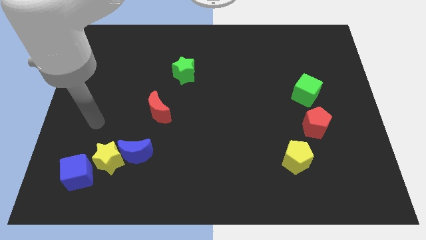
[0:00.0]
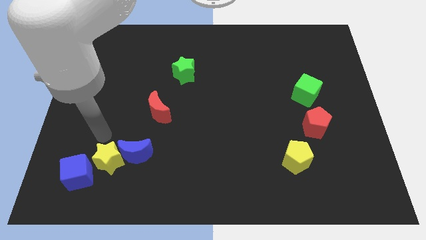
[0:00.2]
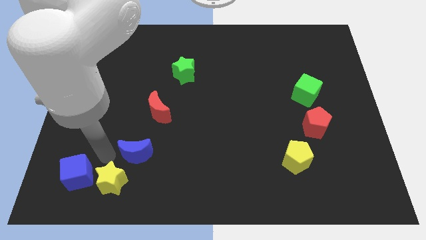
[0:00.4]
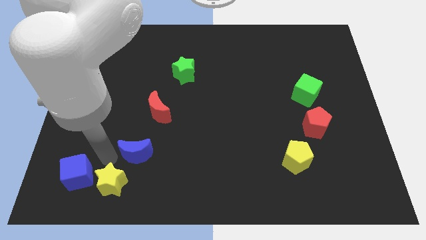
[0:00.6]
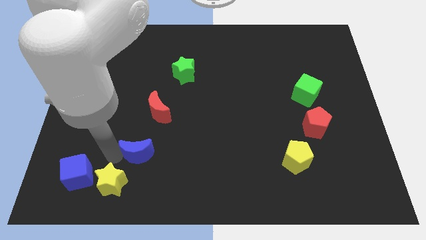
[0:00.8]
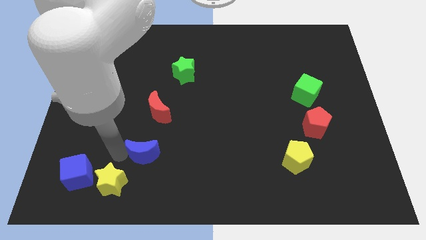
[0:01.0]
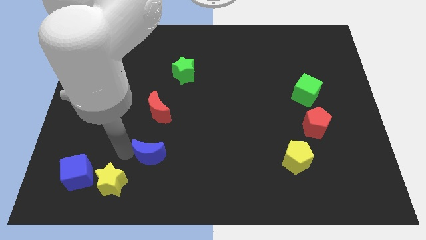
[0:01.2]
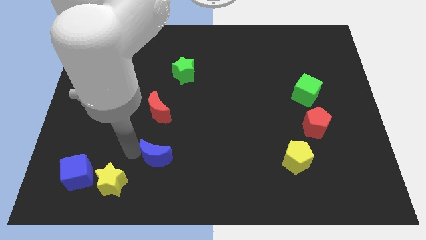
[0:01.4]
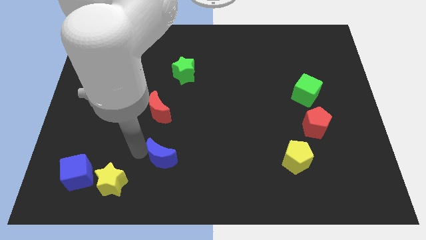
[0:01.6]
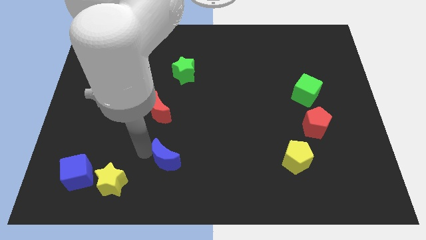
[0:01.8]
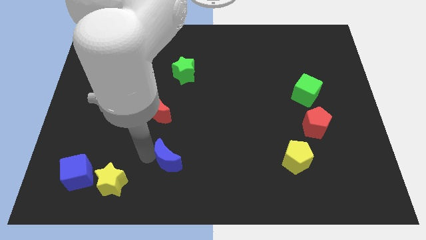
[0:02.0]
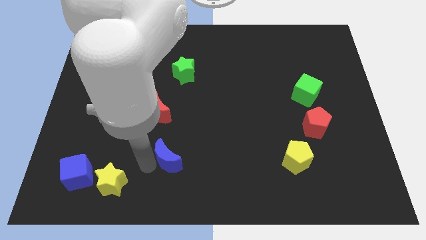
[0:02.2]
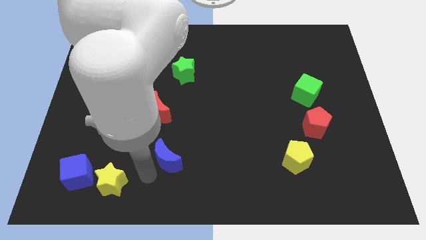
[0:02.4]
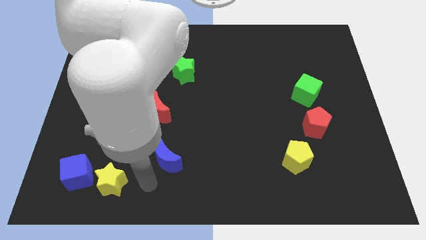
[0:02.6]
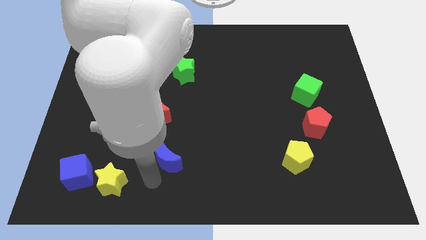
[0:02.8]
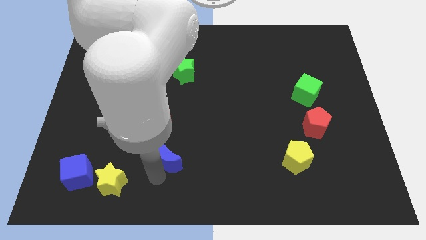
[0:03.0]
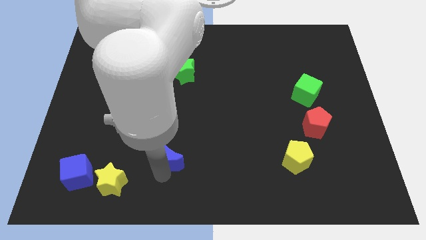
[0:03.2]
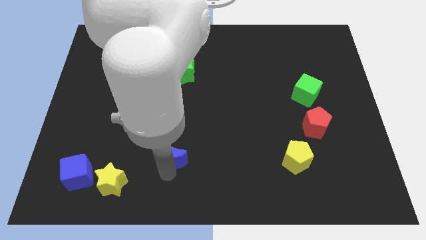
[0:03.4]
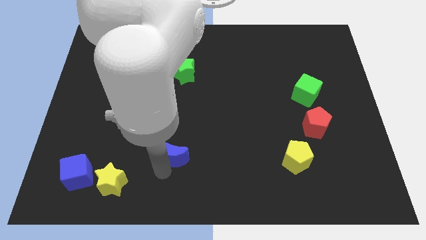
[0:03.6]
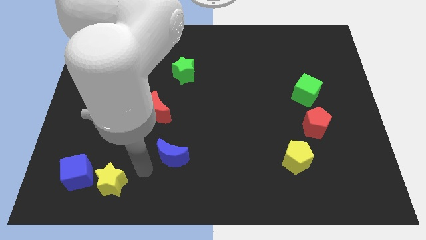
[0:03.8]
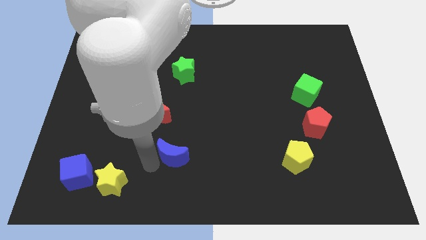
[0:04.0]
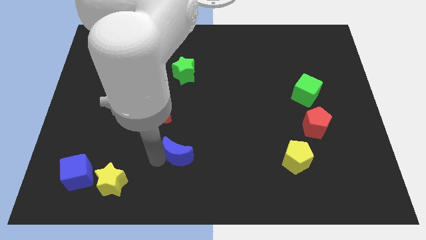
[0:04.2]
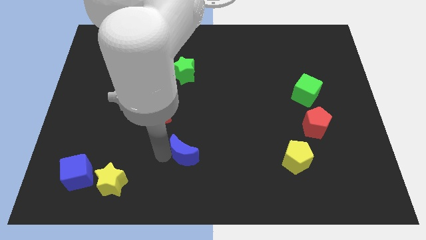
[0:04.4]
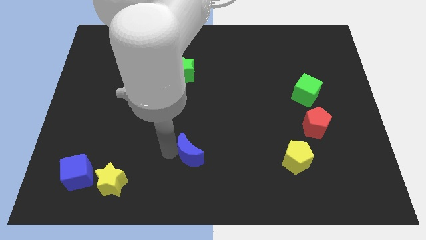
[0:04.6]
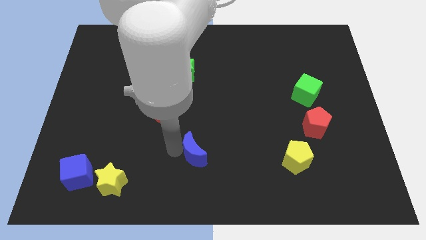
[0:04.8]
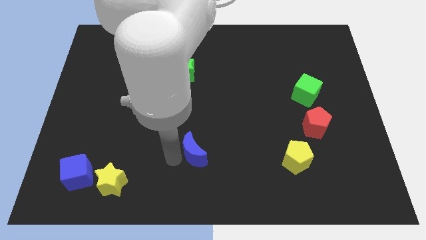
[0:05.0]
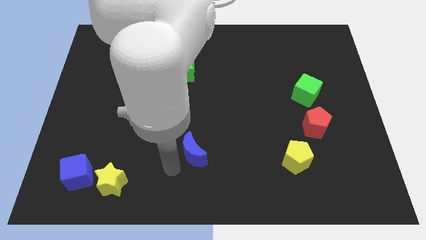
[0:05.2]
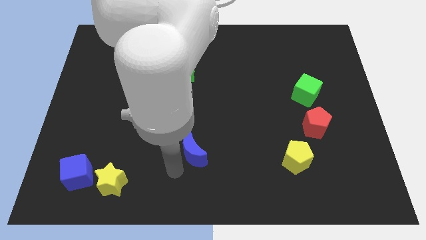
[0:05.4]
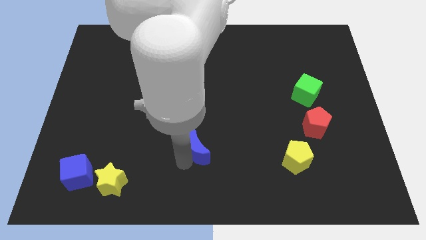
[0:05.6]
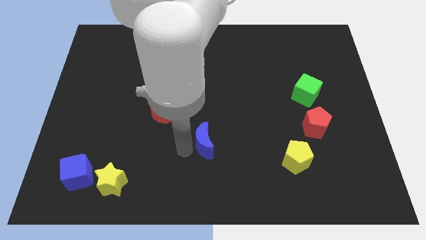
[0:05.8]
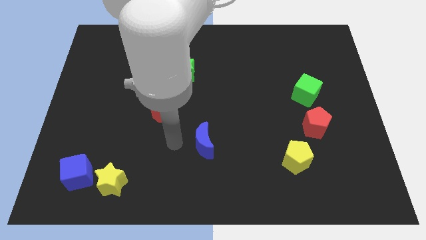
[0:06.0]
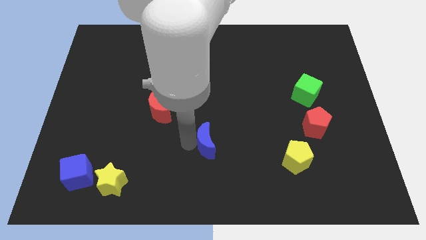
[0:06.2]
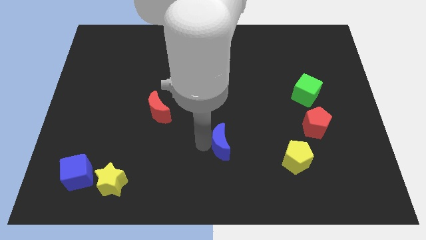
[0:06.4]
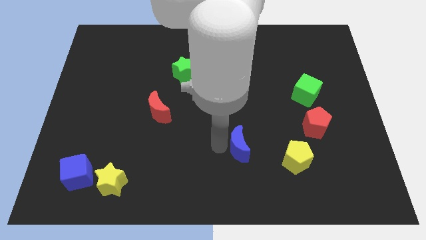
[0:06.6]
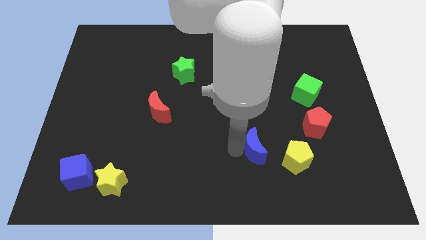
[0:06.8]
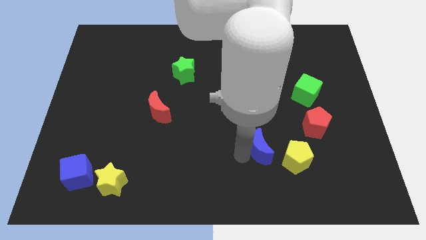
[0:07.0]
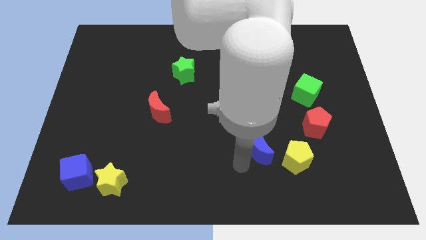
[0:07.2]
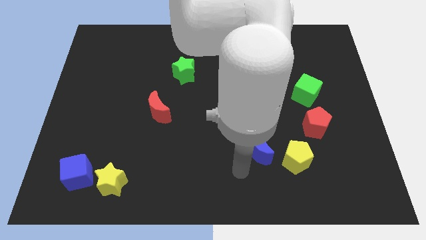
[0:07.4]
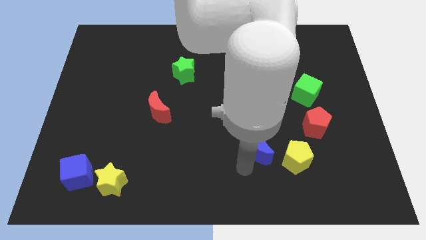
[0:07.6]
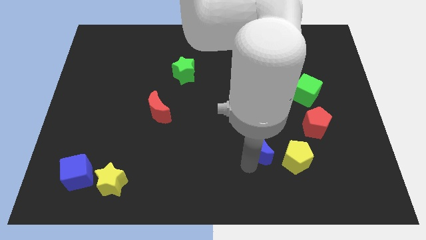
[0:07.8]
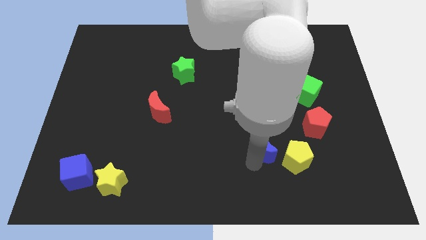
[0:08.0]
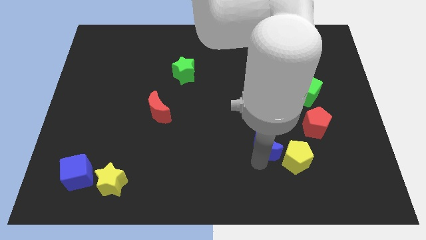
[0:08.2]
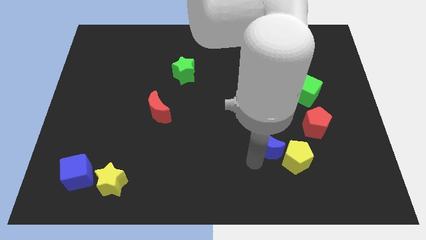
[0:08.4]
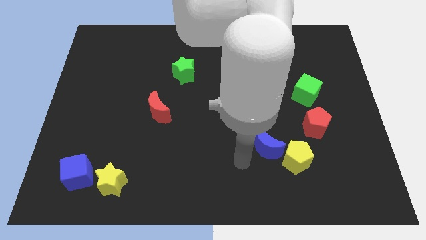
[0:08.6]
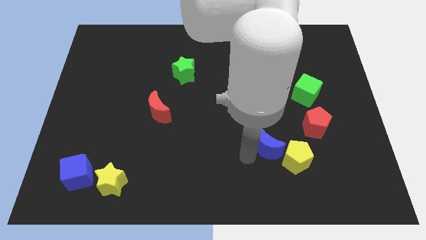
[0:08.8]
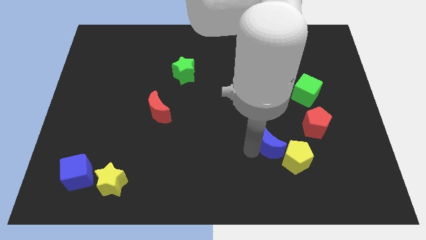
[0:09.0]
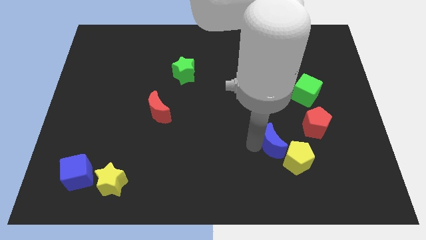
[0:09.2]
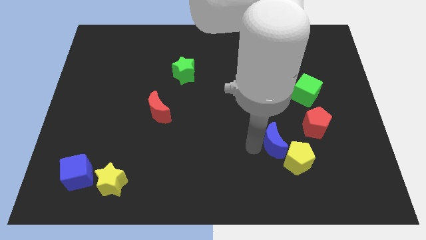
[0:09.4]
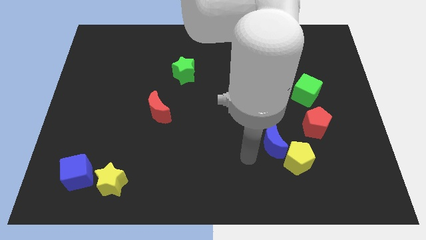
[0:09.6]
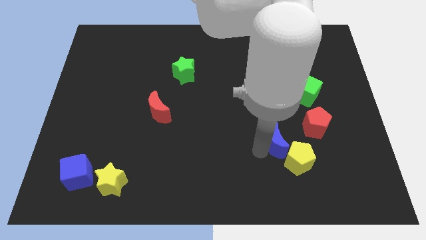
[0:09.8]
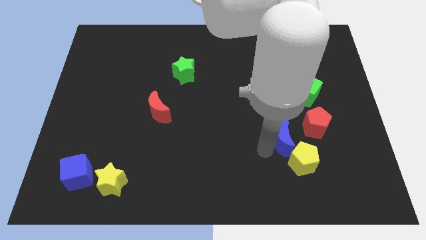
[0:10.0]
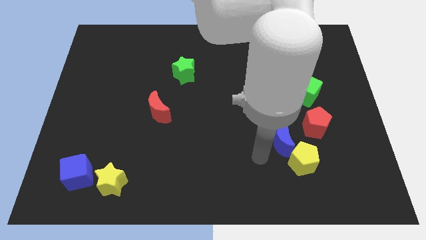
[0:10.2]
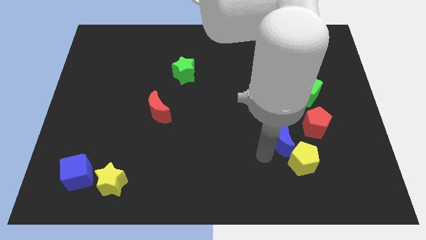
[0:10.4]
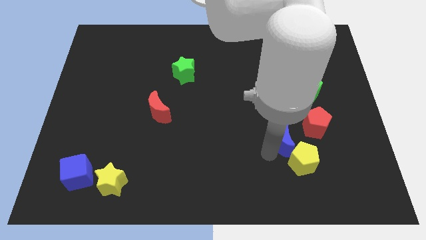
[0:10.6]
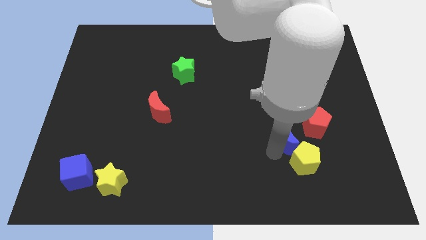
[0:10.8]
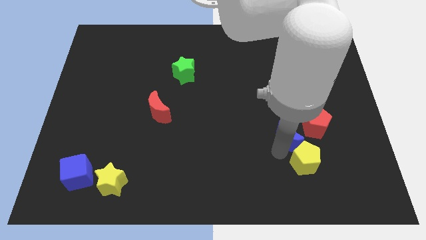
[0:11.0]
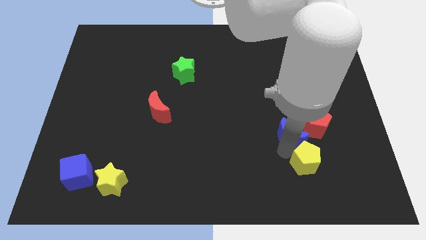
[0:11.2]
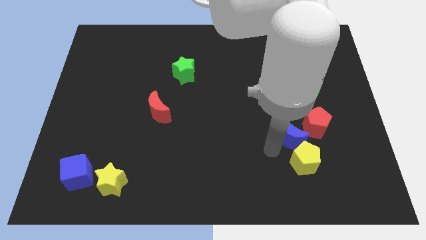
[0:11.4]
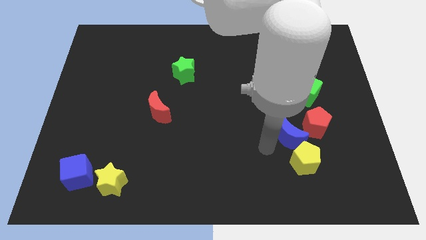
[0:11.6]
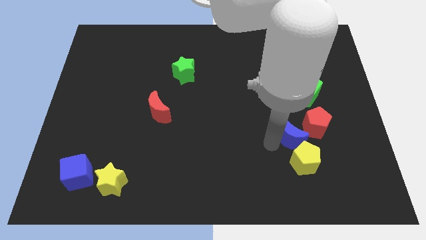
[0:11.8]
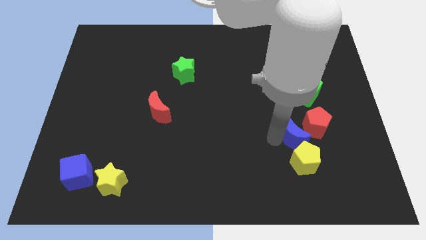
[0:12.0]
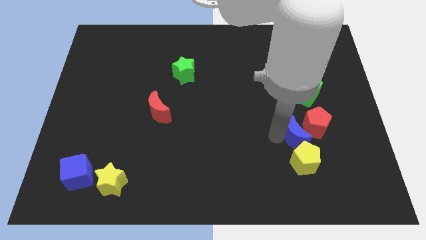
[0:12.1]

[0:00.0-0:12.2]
push the blue moon close to the red pentagon
